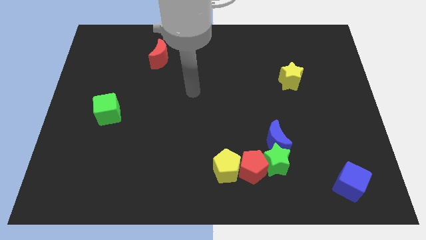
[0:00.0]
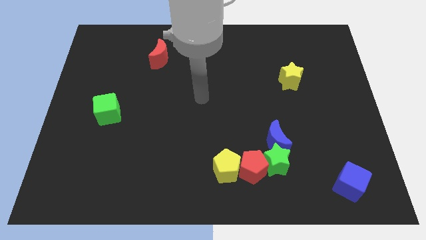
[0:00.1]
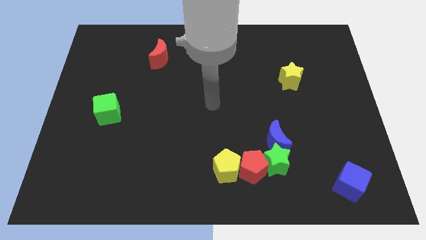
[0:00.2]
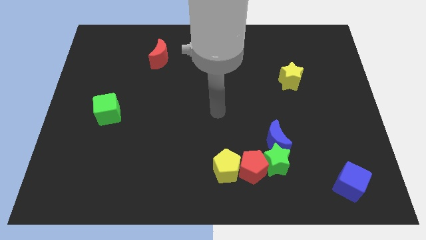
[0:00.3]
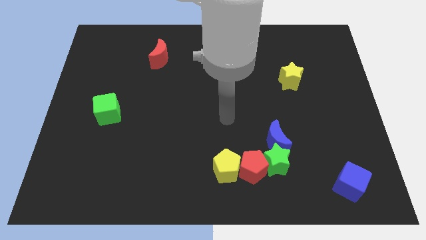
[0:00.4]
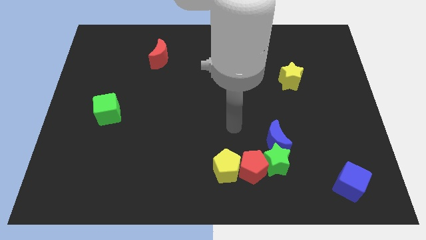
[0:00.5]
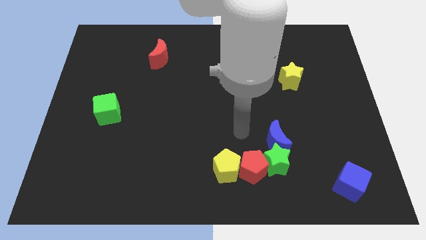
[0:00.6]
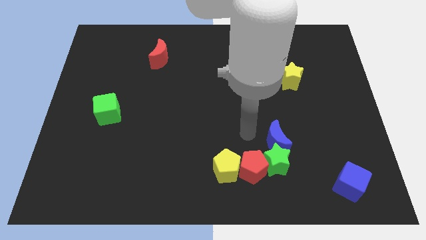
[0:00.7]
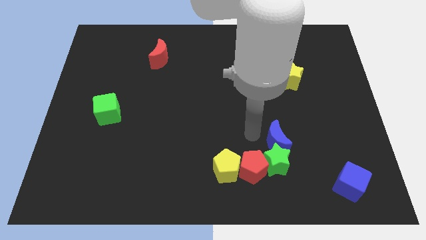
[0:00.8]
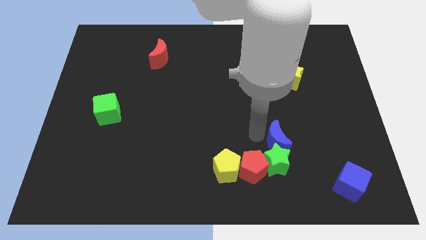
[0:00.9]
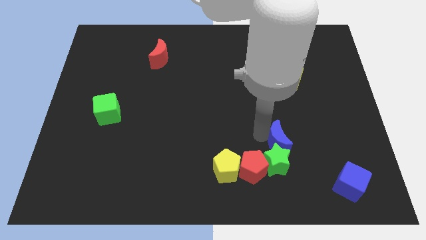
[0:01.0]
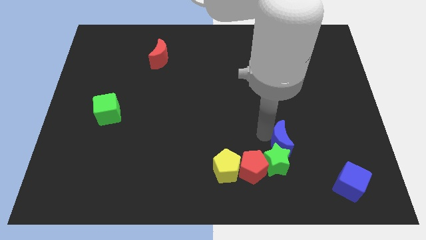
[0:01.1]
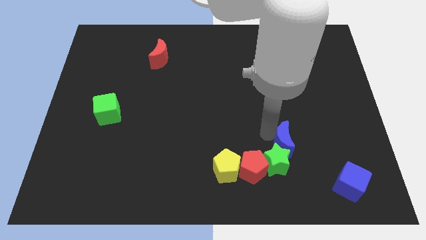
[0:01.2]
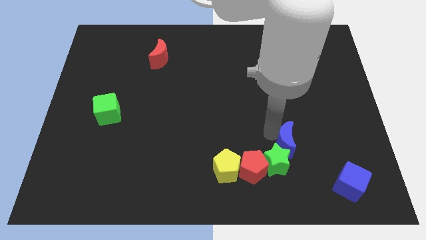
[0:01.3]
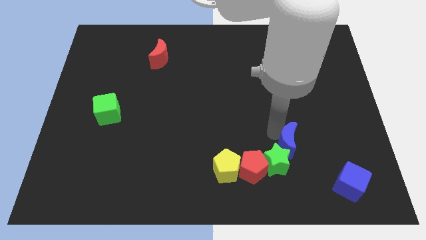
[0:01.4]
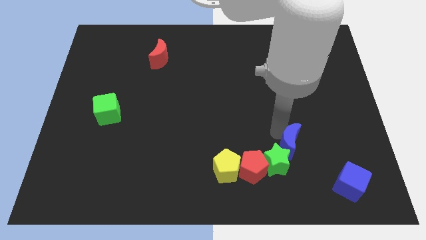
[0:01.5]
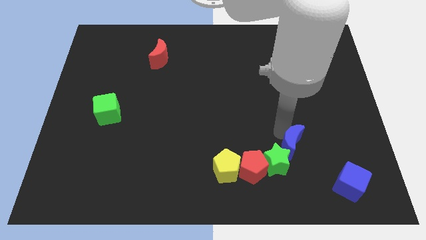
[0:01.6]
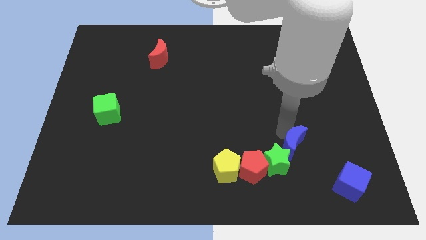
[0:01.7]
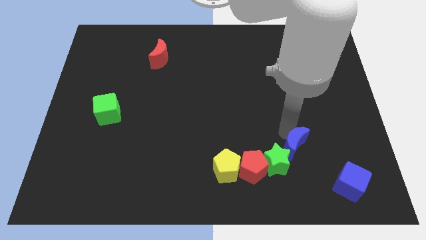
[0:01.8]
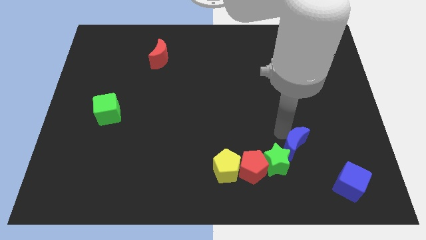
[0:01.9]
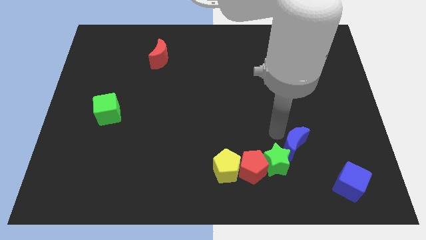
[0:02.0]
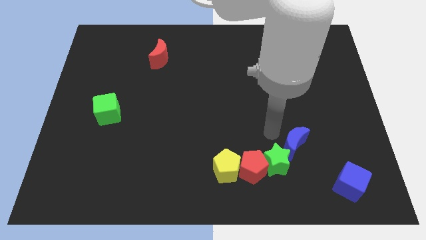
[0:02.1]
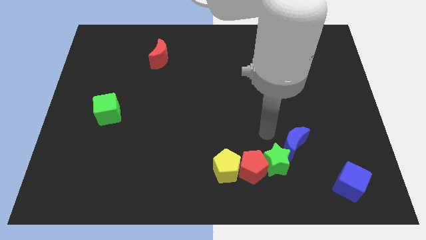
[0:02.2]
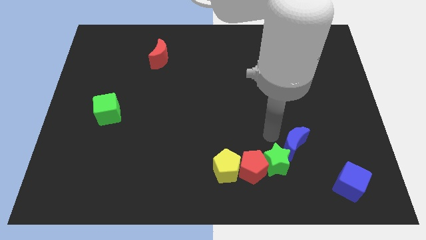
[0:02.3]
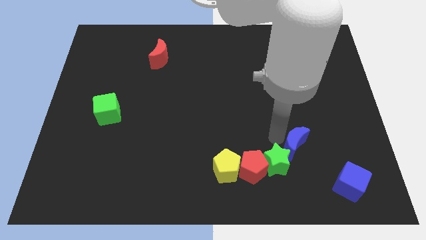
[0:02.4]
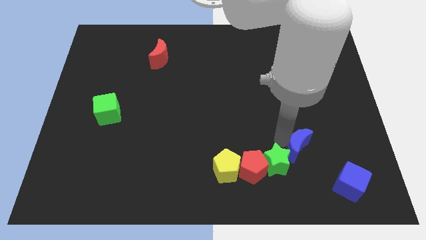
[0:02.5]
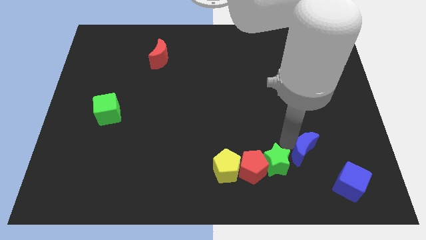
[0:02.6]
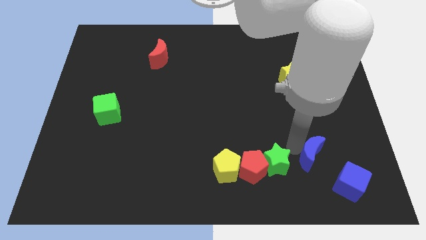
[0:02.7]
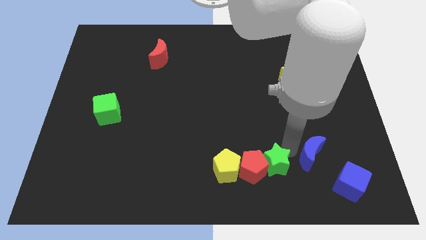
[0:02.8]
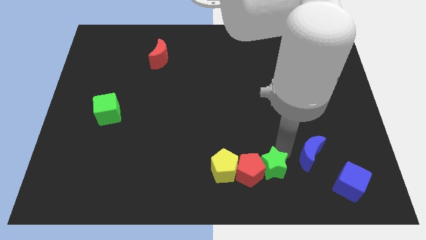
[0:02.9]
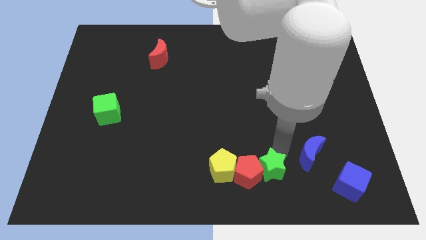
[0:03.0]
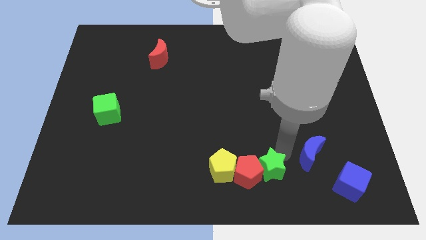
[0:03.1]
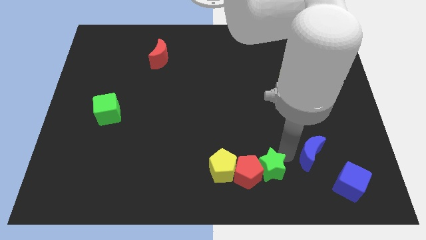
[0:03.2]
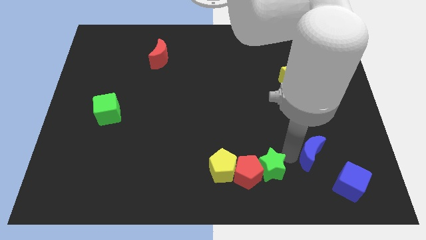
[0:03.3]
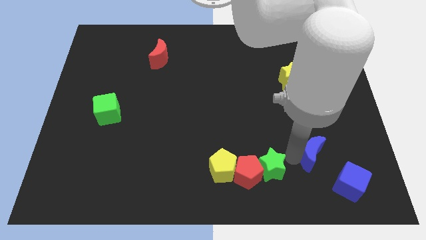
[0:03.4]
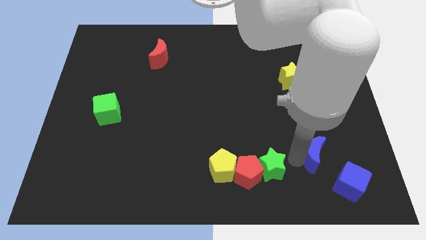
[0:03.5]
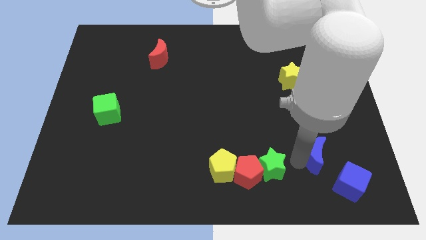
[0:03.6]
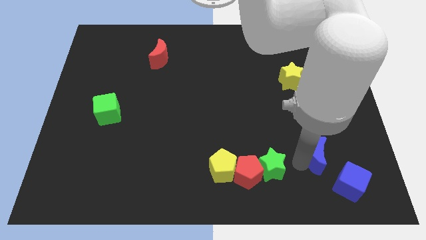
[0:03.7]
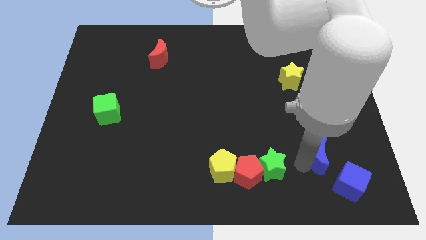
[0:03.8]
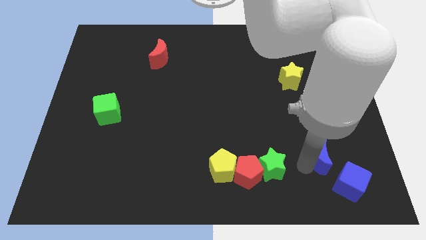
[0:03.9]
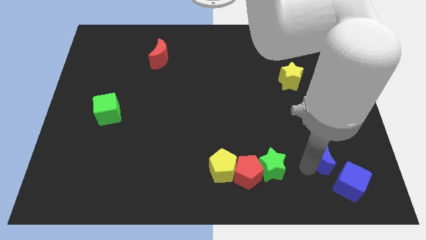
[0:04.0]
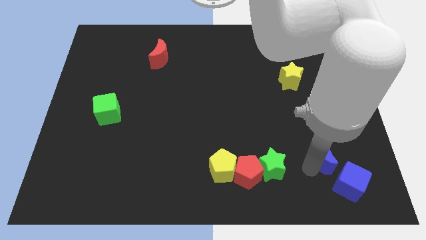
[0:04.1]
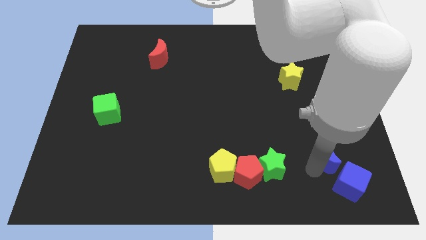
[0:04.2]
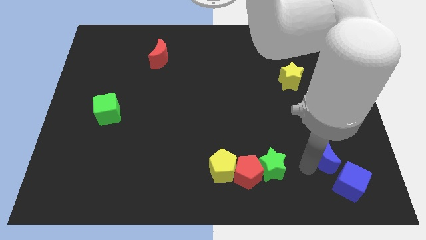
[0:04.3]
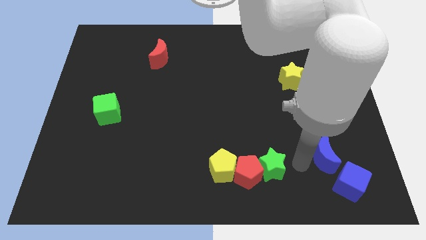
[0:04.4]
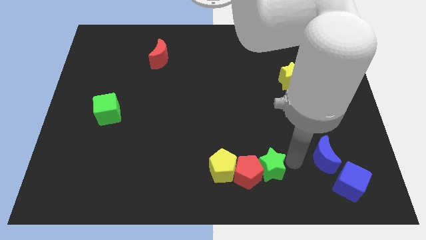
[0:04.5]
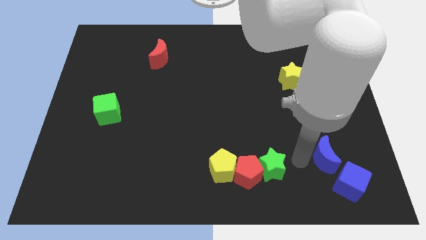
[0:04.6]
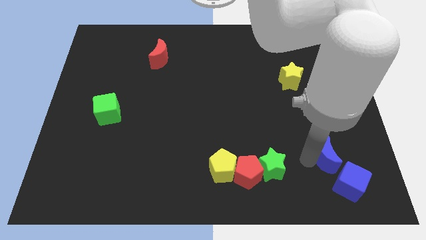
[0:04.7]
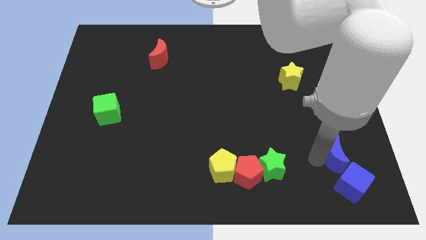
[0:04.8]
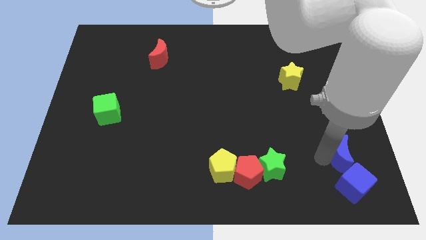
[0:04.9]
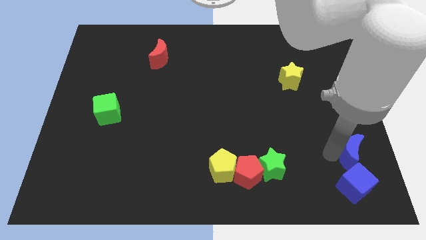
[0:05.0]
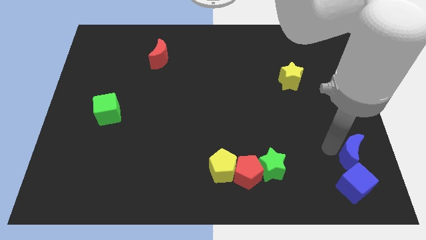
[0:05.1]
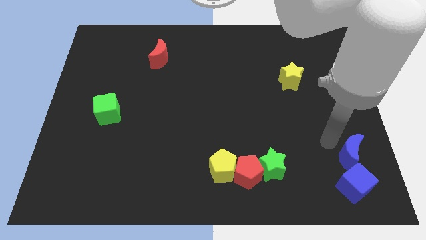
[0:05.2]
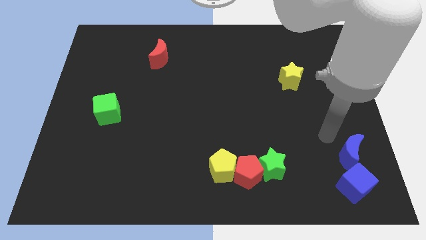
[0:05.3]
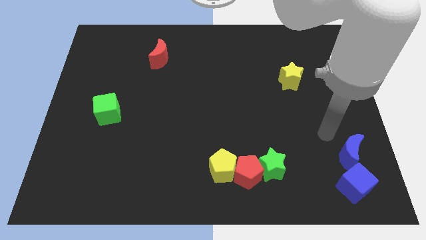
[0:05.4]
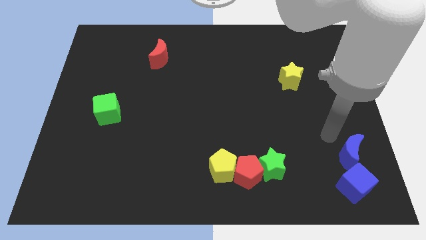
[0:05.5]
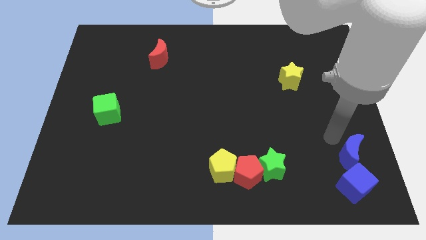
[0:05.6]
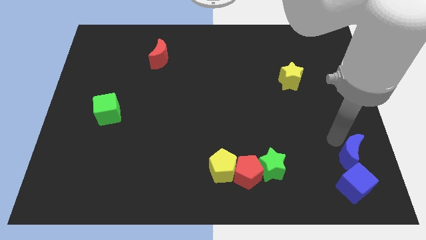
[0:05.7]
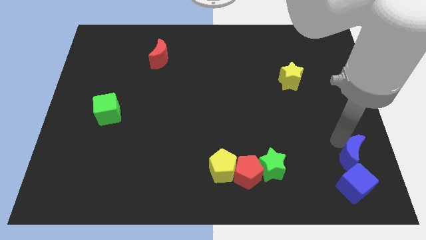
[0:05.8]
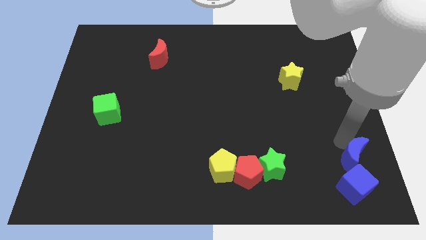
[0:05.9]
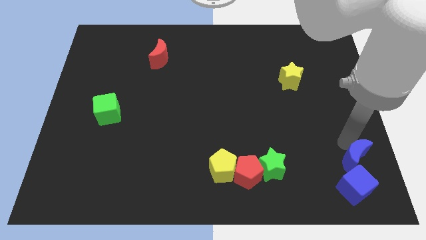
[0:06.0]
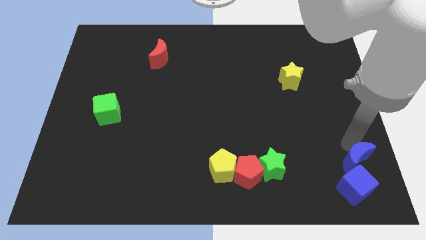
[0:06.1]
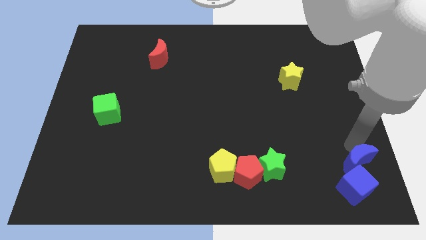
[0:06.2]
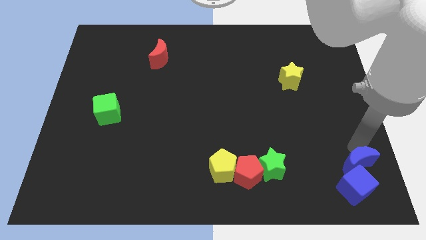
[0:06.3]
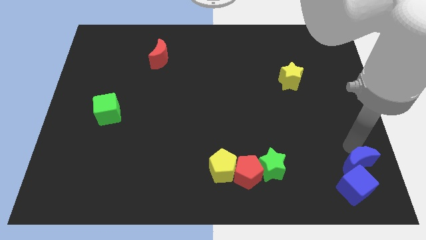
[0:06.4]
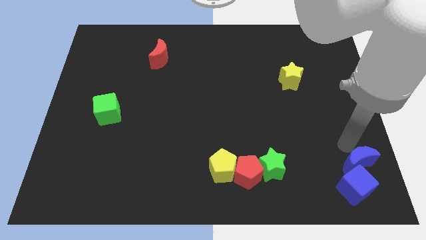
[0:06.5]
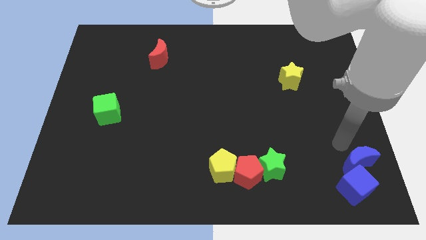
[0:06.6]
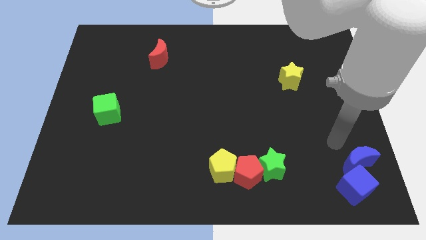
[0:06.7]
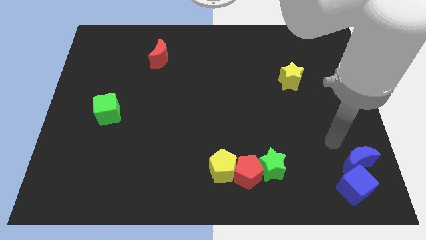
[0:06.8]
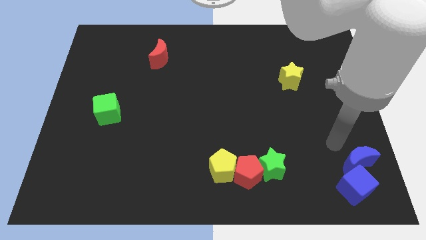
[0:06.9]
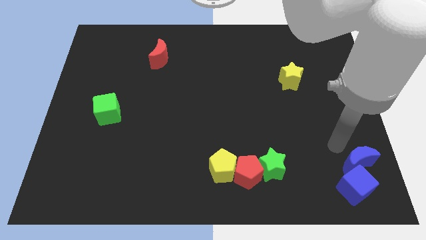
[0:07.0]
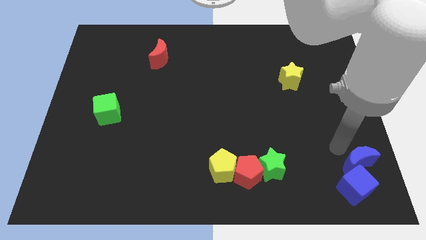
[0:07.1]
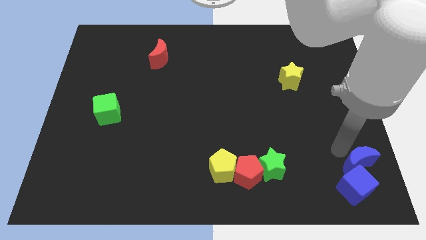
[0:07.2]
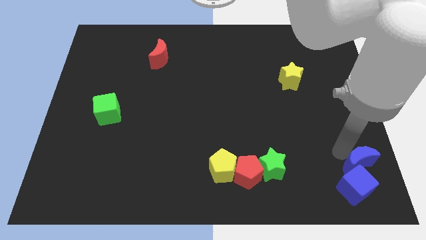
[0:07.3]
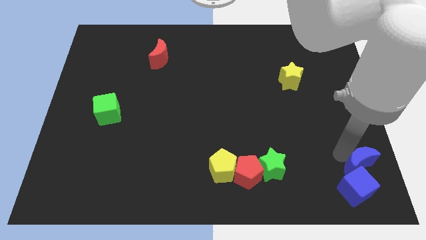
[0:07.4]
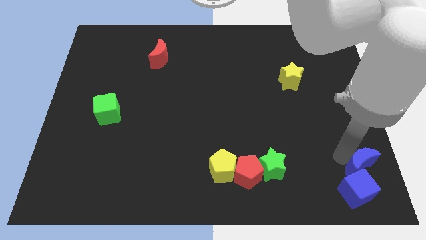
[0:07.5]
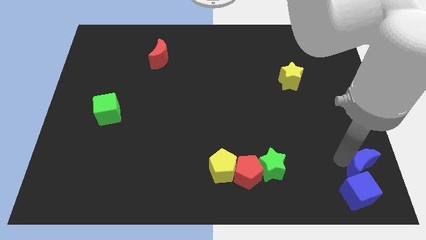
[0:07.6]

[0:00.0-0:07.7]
put the blue moon to the bottom right of the board
